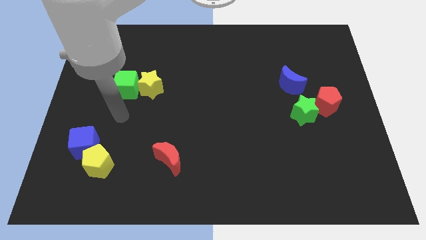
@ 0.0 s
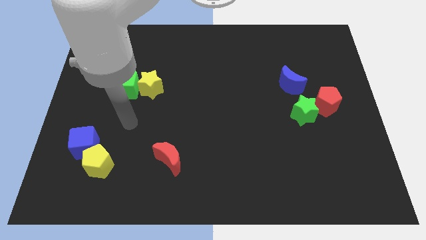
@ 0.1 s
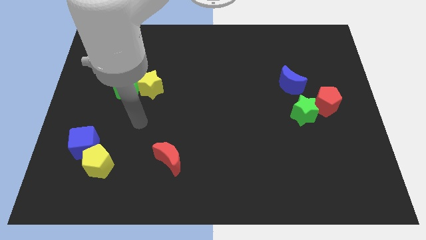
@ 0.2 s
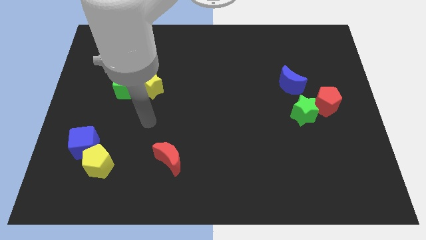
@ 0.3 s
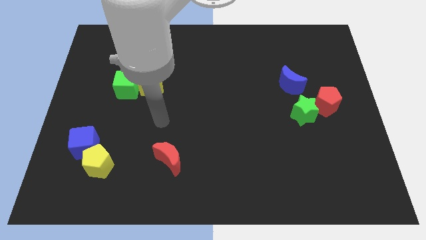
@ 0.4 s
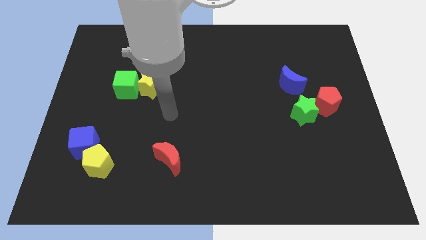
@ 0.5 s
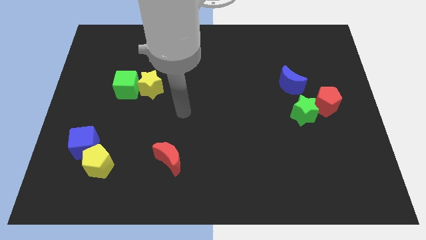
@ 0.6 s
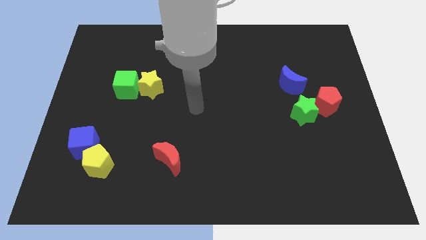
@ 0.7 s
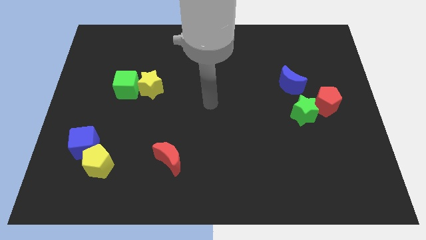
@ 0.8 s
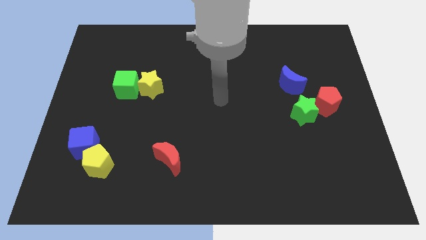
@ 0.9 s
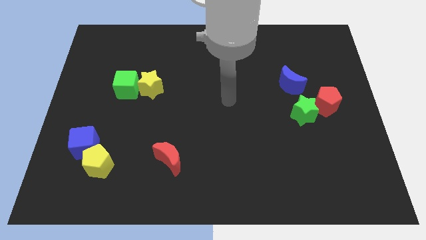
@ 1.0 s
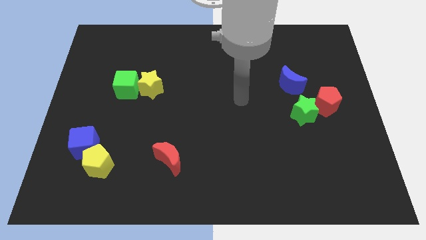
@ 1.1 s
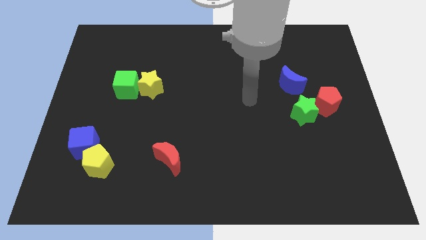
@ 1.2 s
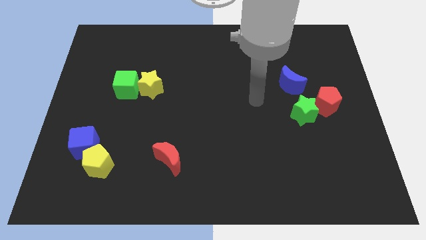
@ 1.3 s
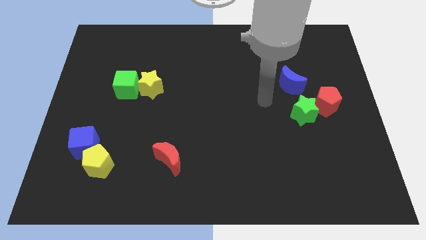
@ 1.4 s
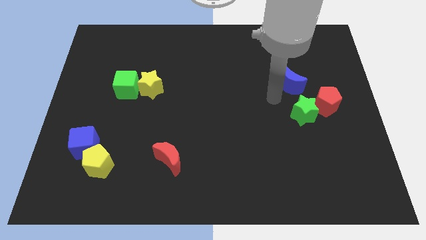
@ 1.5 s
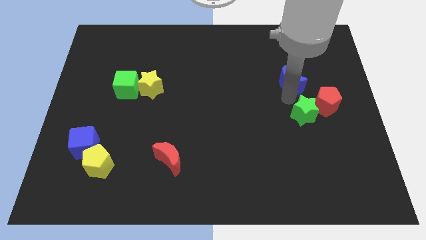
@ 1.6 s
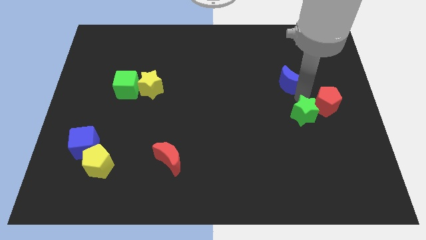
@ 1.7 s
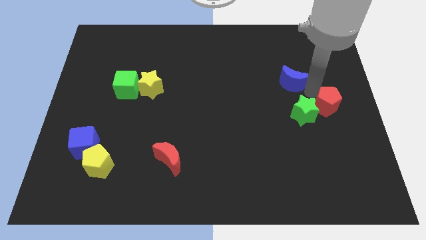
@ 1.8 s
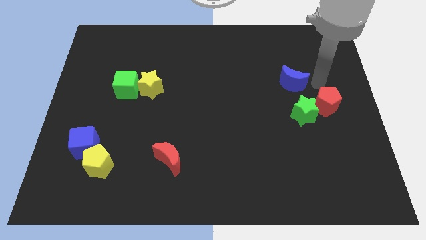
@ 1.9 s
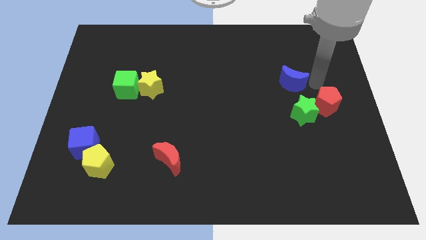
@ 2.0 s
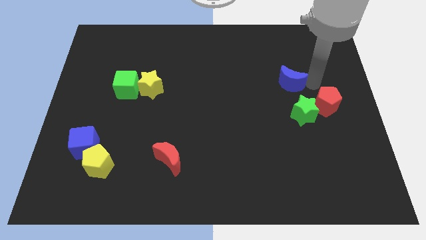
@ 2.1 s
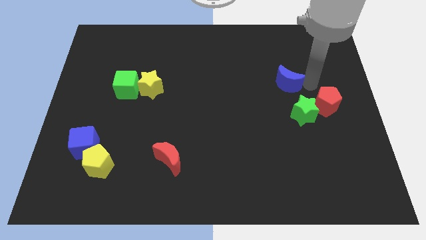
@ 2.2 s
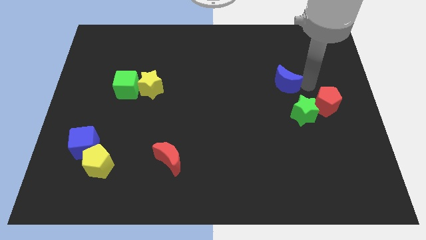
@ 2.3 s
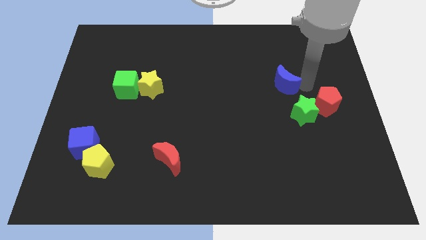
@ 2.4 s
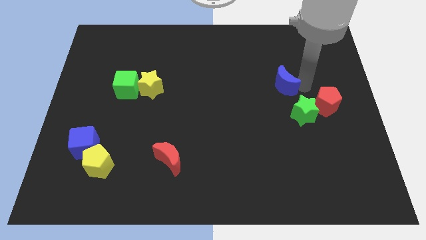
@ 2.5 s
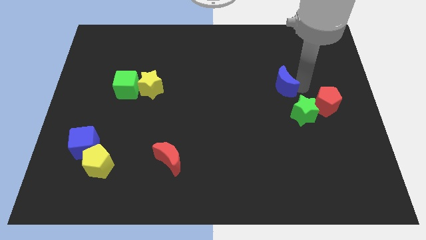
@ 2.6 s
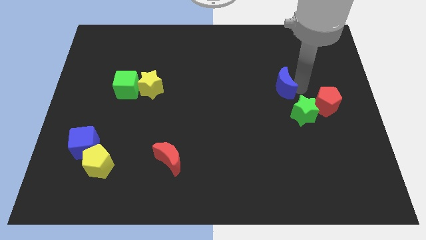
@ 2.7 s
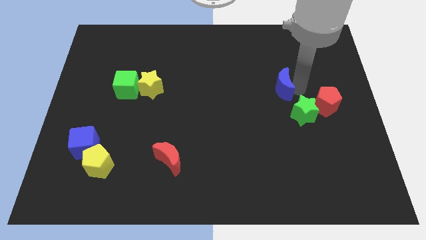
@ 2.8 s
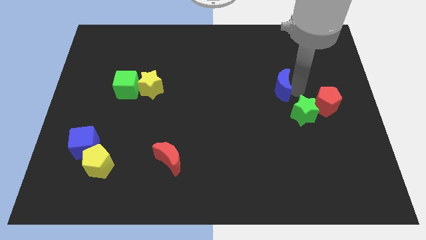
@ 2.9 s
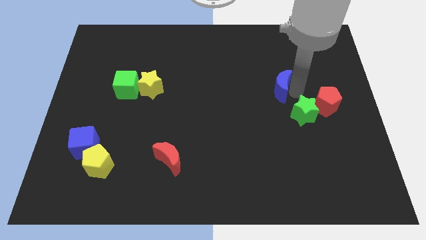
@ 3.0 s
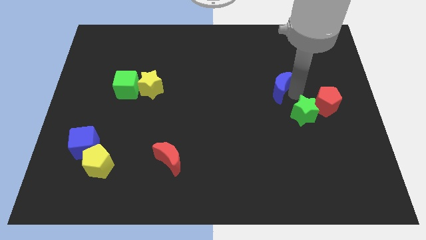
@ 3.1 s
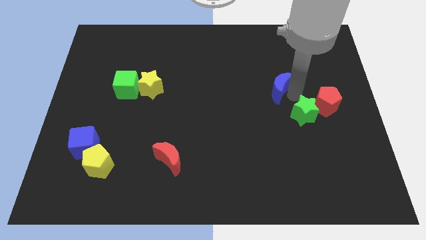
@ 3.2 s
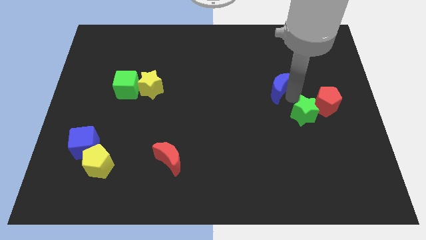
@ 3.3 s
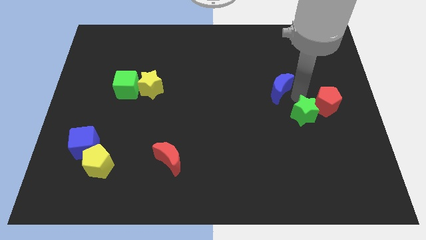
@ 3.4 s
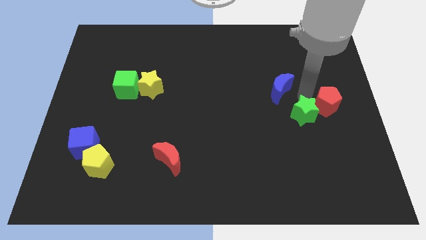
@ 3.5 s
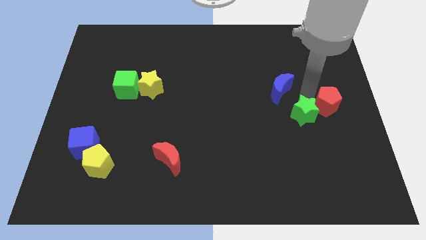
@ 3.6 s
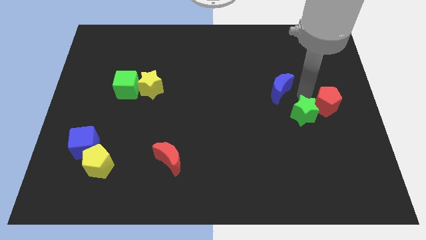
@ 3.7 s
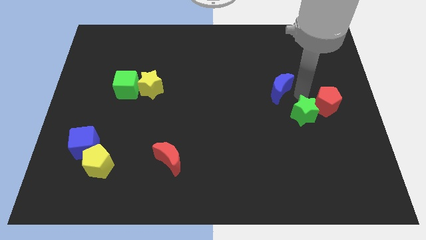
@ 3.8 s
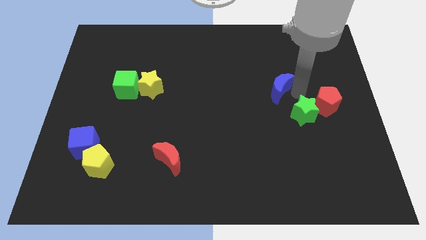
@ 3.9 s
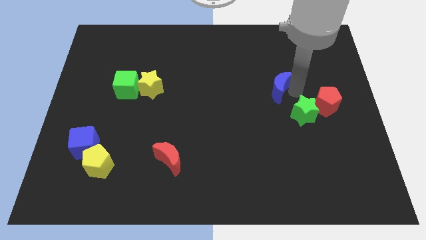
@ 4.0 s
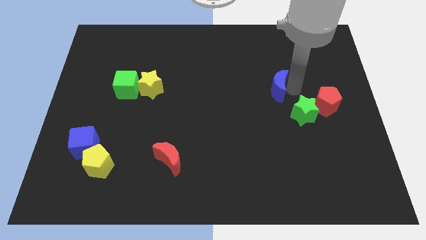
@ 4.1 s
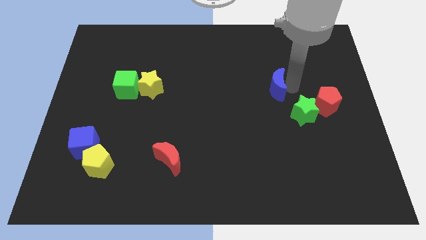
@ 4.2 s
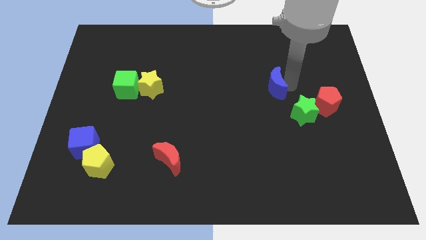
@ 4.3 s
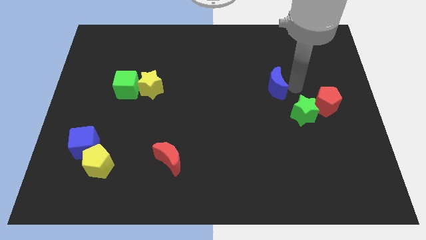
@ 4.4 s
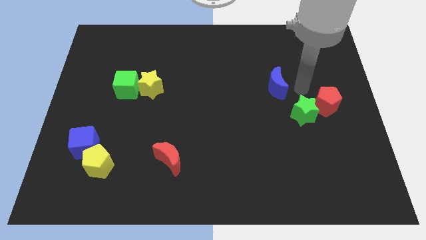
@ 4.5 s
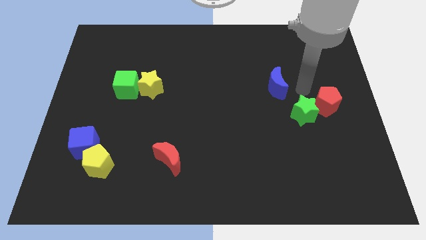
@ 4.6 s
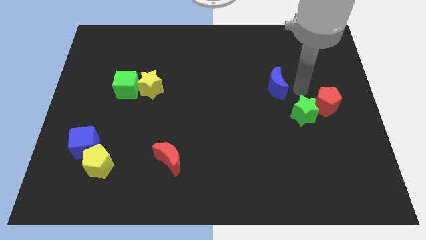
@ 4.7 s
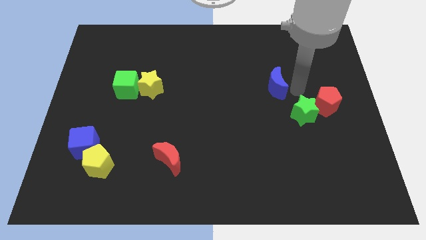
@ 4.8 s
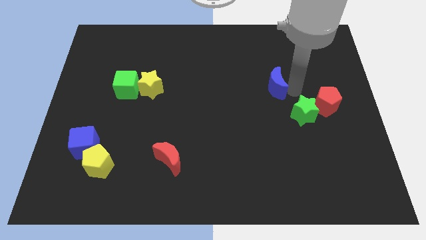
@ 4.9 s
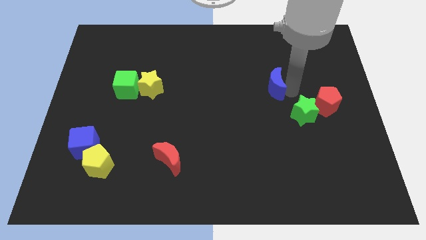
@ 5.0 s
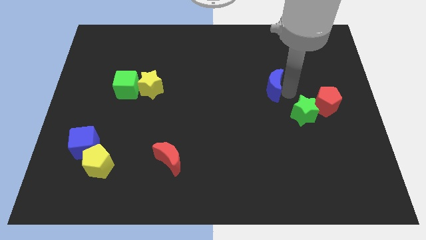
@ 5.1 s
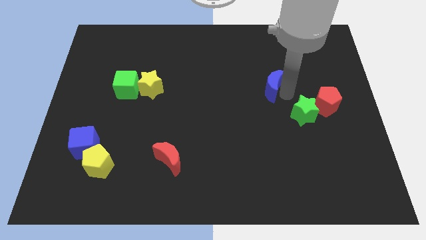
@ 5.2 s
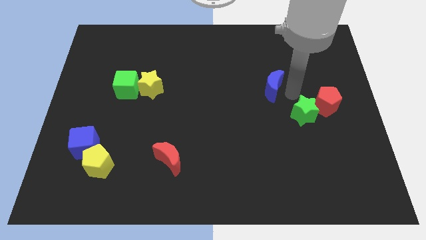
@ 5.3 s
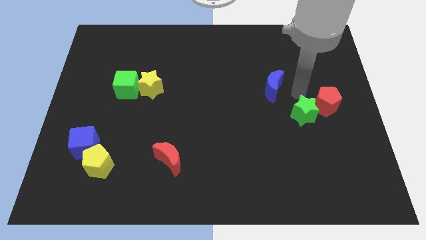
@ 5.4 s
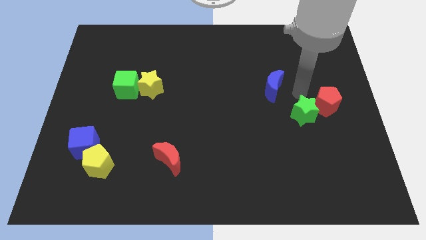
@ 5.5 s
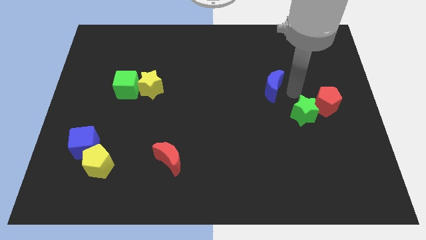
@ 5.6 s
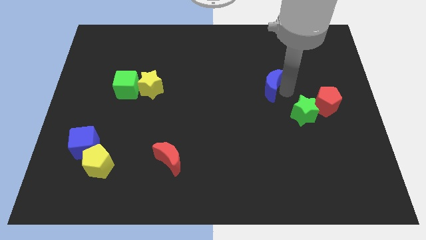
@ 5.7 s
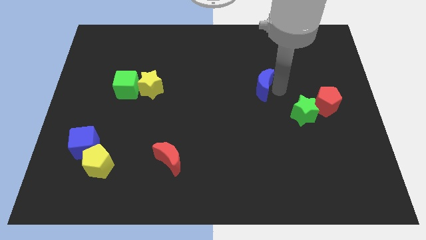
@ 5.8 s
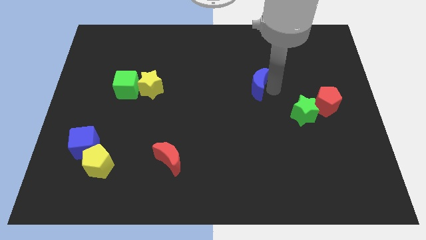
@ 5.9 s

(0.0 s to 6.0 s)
push the blue moon to the middle
